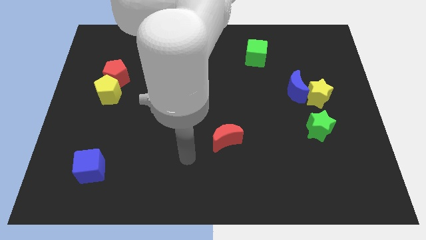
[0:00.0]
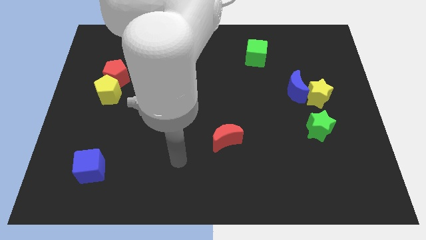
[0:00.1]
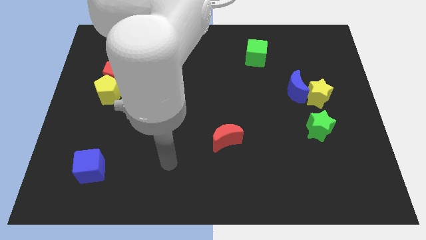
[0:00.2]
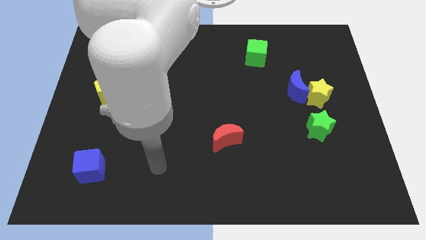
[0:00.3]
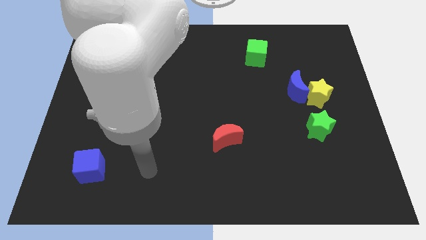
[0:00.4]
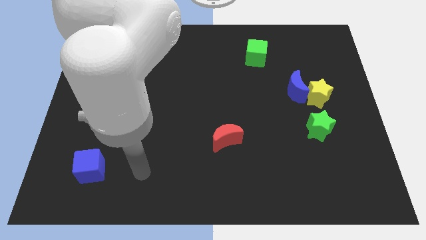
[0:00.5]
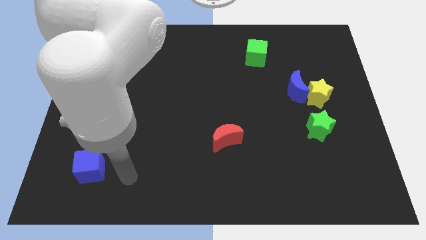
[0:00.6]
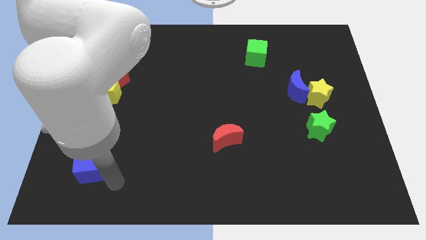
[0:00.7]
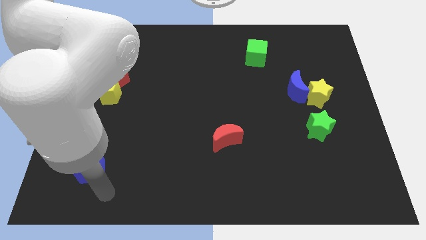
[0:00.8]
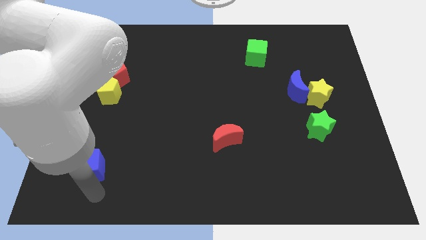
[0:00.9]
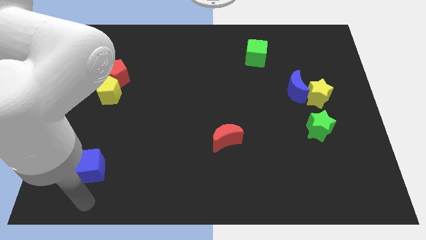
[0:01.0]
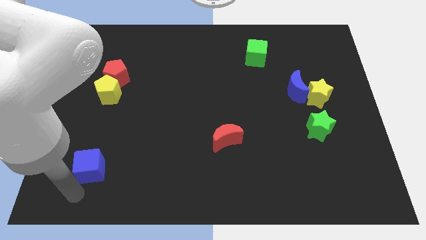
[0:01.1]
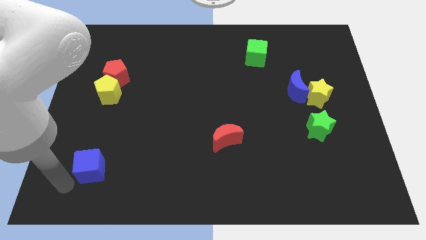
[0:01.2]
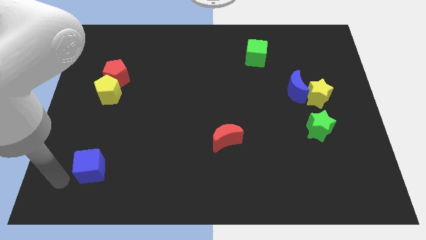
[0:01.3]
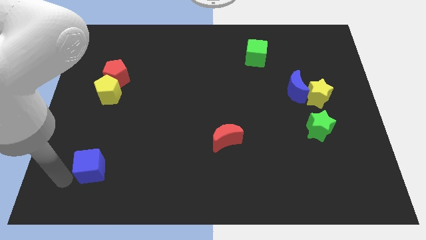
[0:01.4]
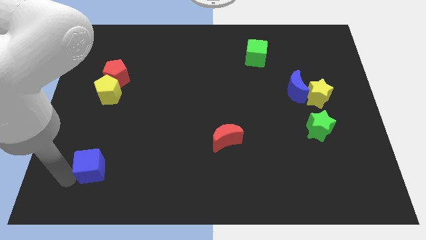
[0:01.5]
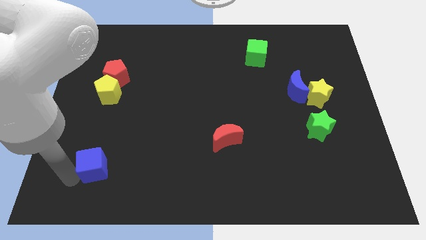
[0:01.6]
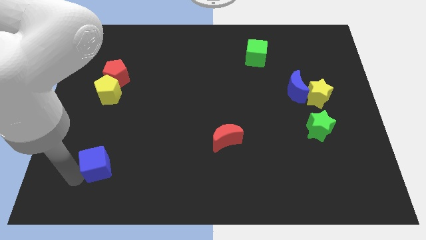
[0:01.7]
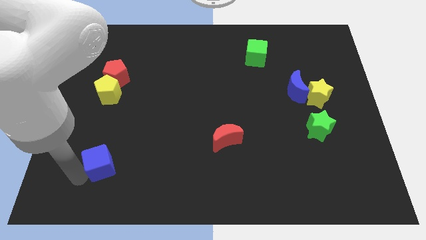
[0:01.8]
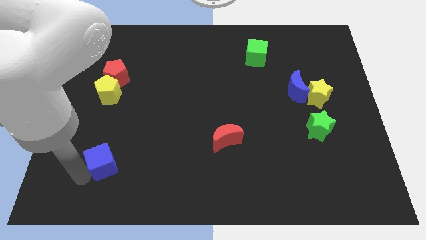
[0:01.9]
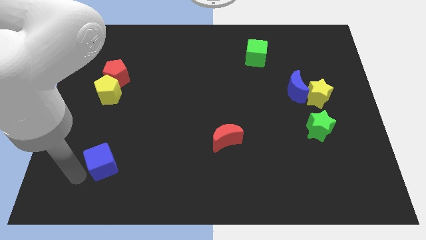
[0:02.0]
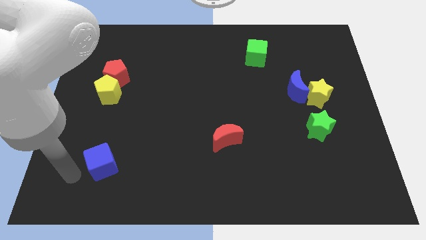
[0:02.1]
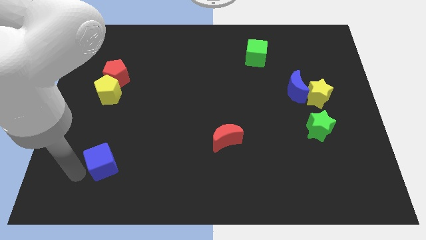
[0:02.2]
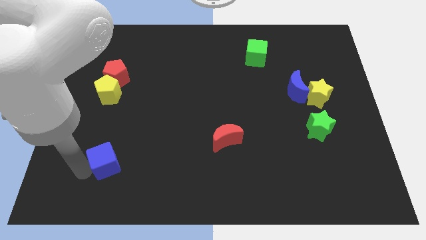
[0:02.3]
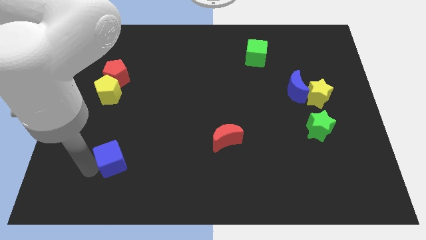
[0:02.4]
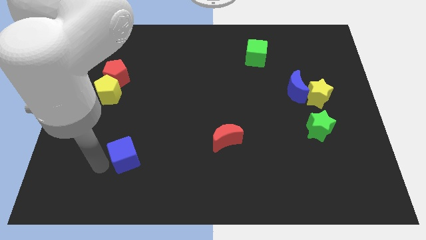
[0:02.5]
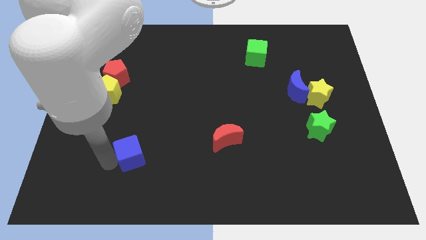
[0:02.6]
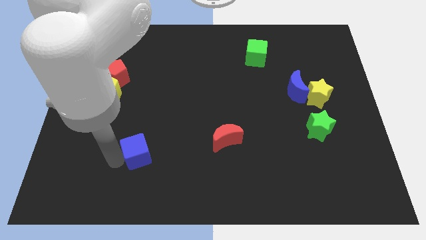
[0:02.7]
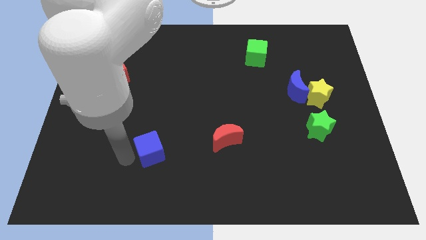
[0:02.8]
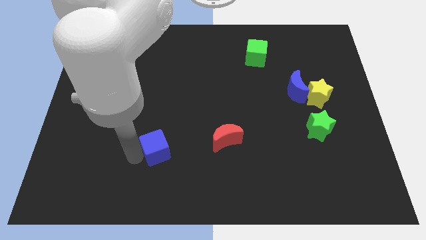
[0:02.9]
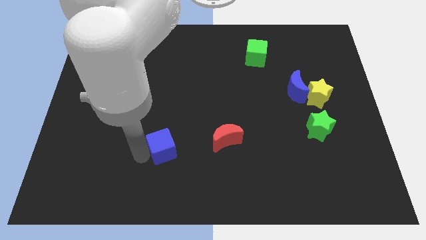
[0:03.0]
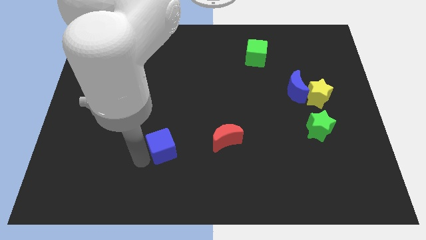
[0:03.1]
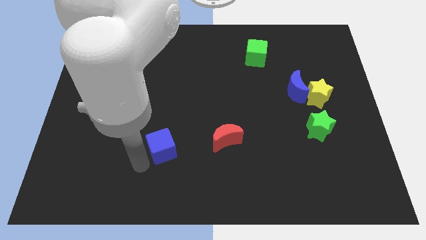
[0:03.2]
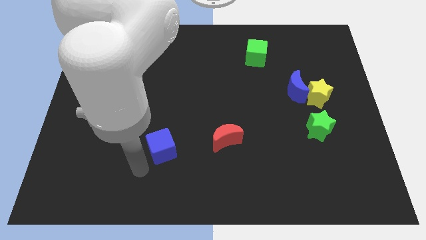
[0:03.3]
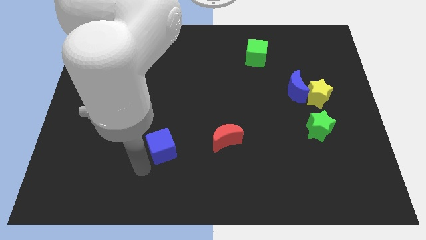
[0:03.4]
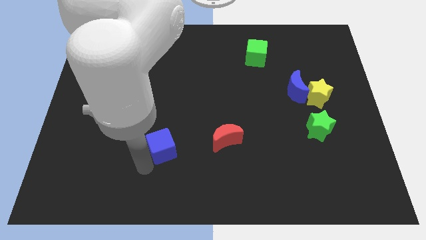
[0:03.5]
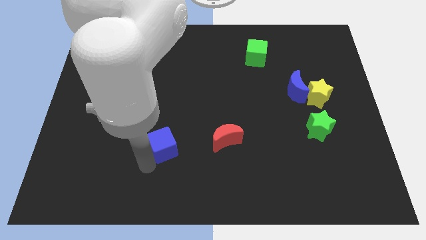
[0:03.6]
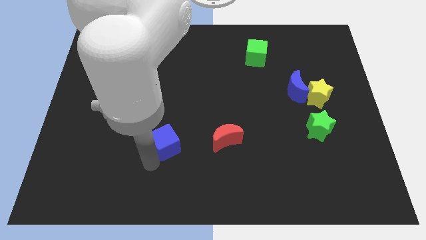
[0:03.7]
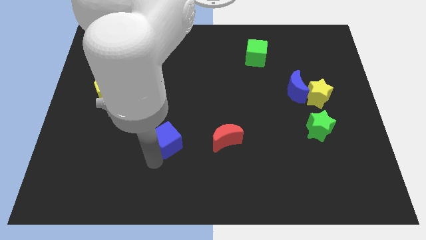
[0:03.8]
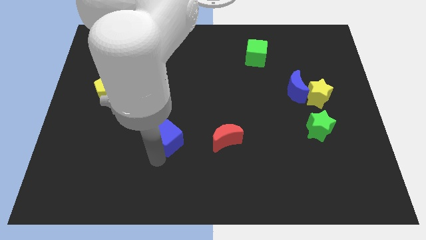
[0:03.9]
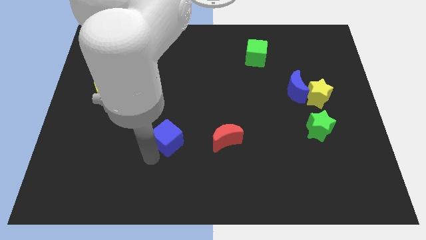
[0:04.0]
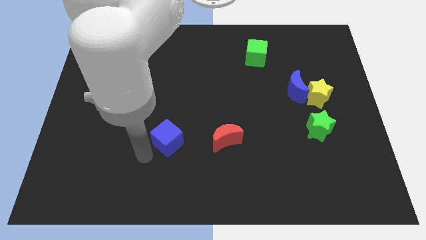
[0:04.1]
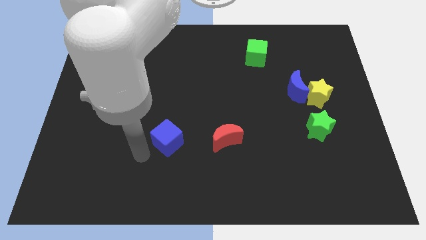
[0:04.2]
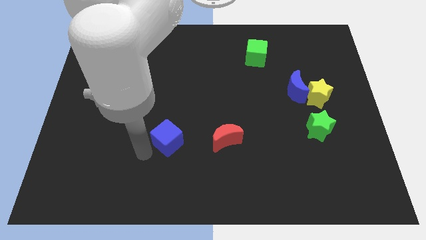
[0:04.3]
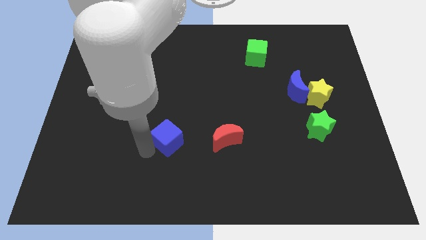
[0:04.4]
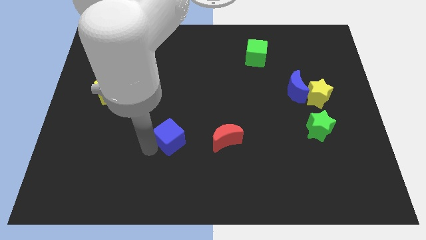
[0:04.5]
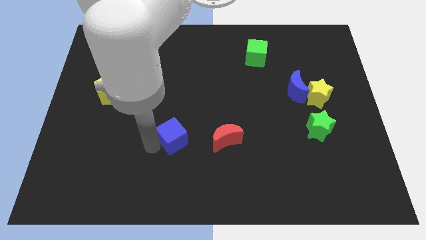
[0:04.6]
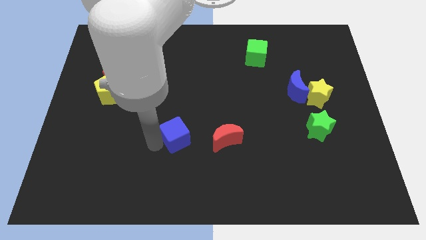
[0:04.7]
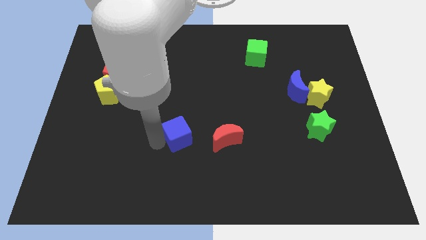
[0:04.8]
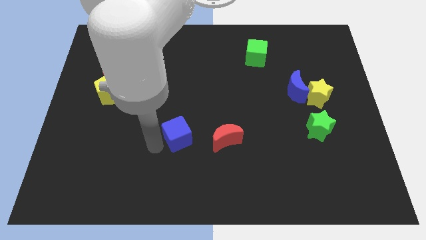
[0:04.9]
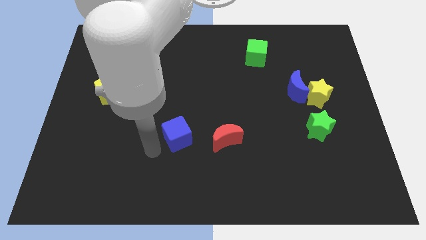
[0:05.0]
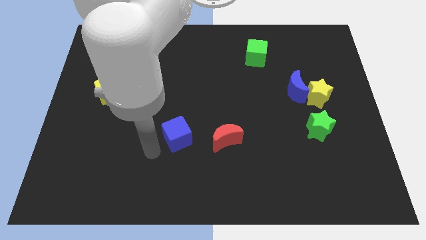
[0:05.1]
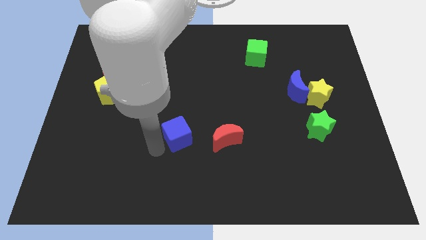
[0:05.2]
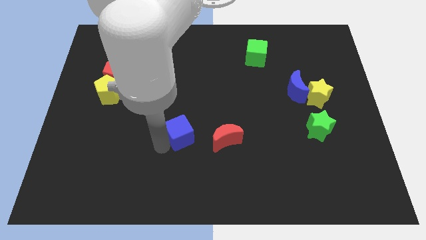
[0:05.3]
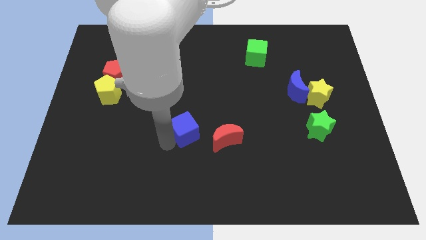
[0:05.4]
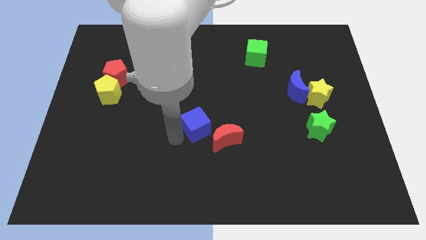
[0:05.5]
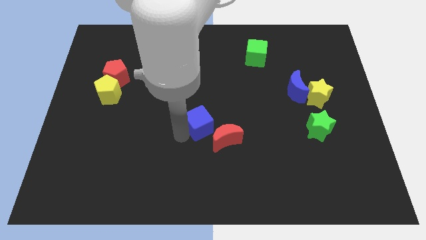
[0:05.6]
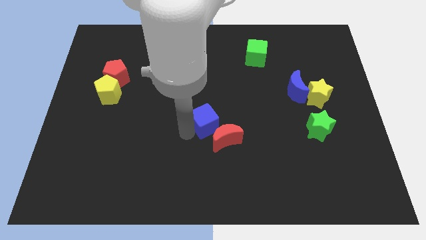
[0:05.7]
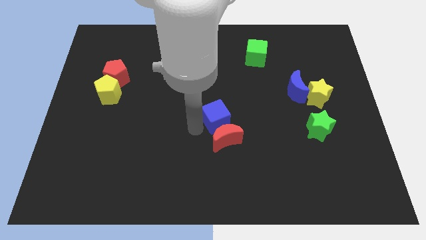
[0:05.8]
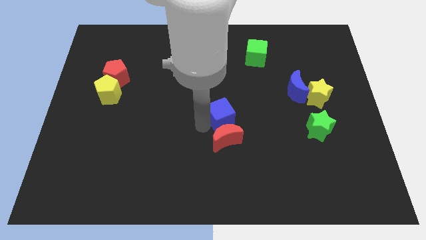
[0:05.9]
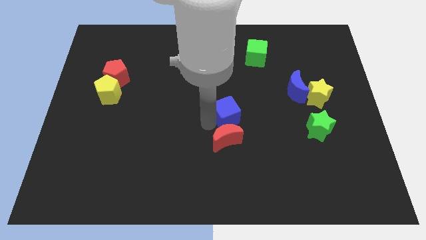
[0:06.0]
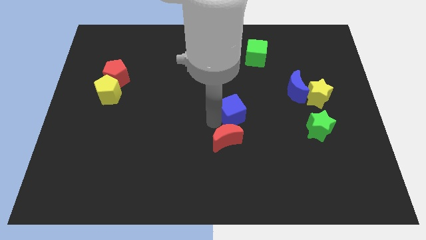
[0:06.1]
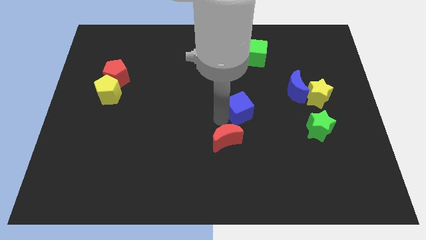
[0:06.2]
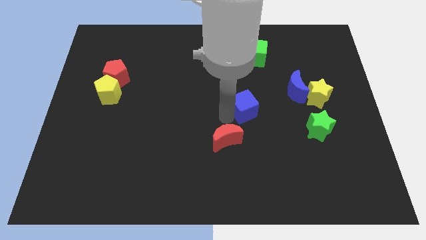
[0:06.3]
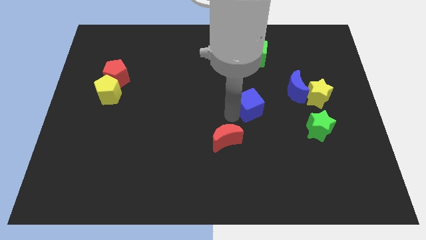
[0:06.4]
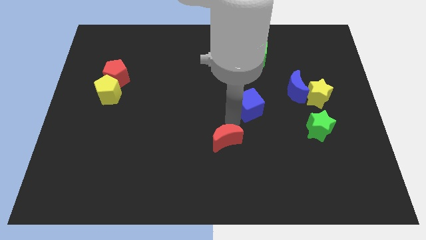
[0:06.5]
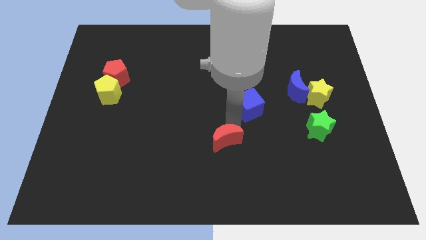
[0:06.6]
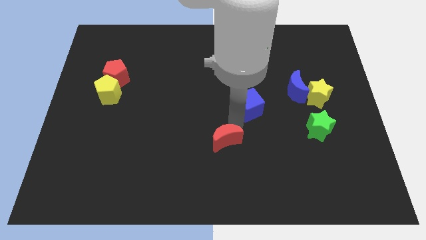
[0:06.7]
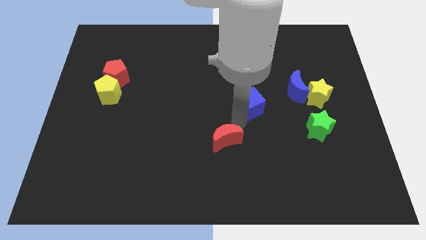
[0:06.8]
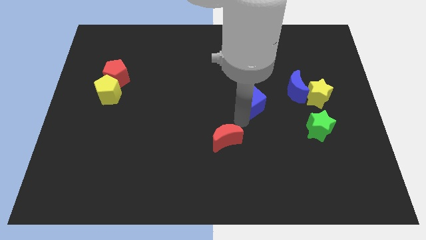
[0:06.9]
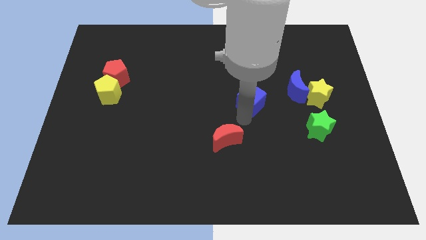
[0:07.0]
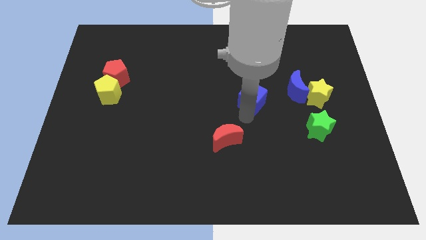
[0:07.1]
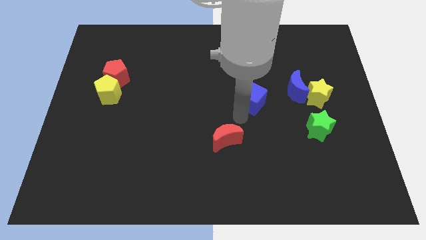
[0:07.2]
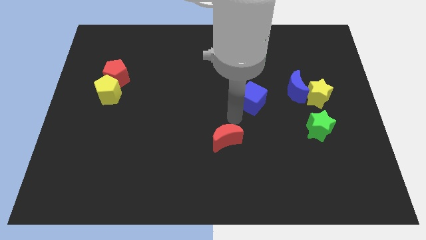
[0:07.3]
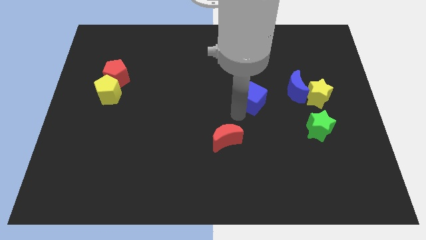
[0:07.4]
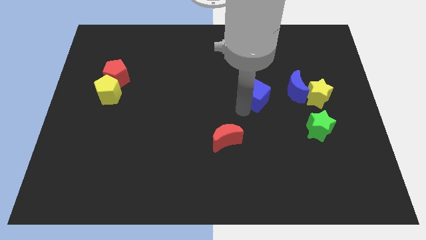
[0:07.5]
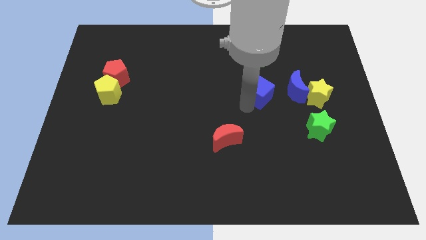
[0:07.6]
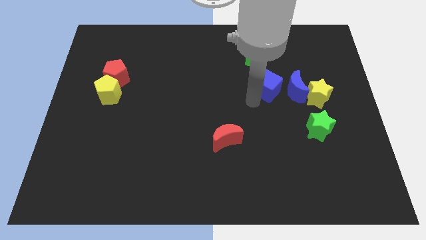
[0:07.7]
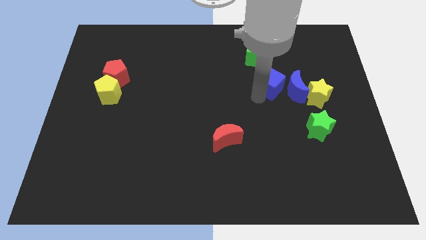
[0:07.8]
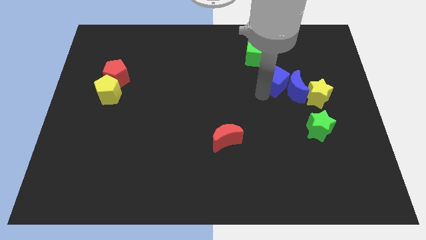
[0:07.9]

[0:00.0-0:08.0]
push the blue cube to the top left of the yellow star
